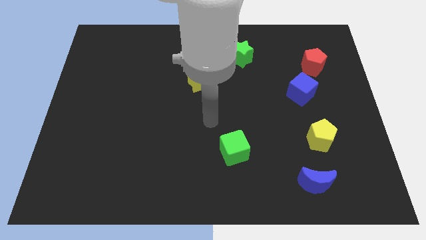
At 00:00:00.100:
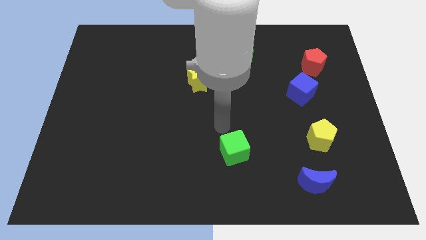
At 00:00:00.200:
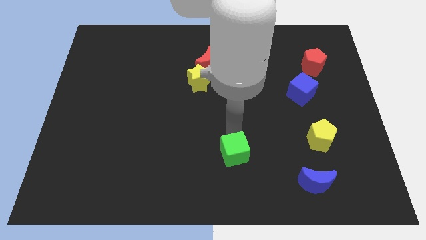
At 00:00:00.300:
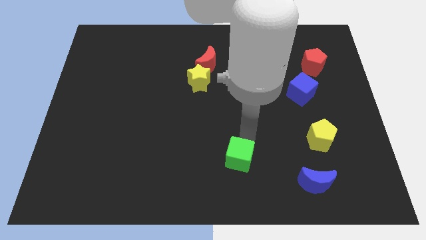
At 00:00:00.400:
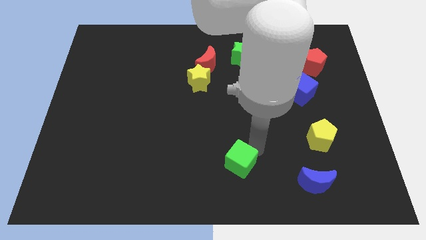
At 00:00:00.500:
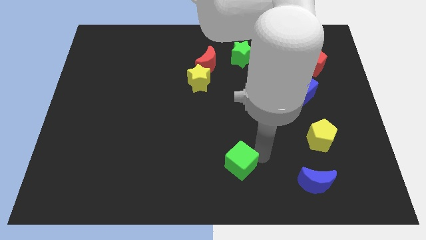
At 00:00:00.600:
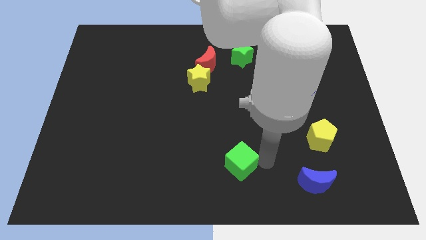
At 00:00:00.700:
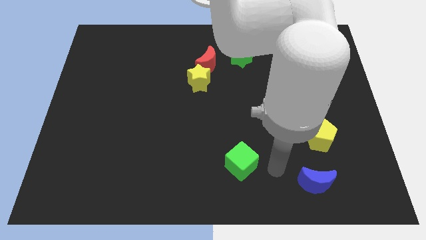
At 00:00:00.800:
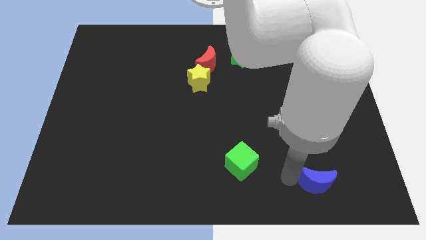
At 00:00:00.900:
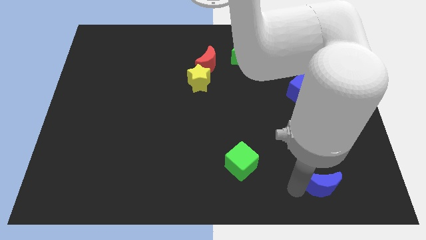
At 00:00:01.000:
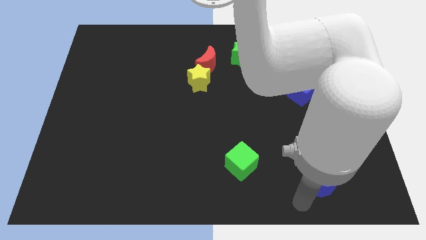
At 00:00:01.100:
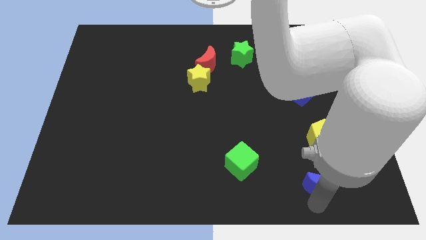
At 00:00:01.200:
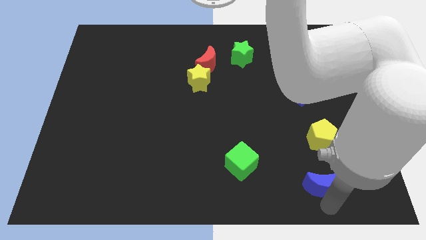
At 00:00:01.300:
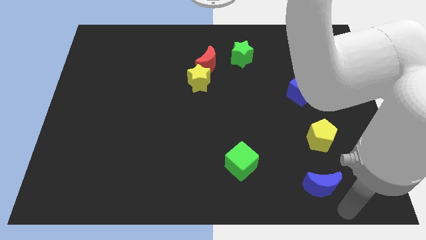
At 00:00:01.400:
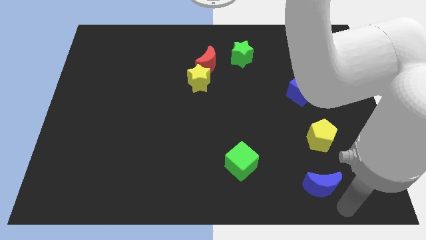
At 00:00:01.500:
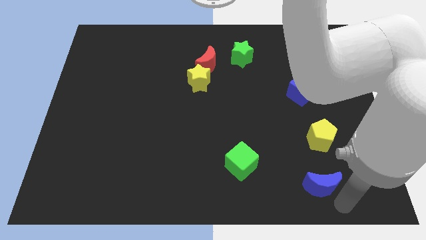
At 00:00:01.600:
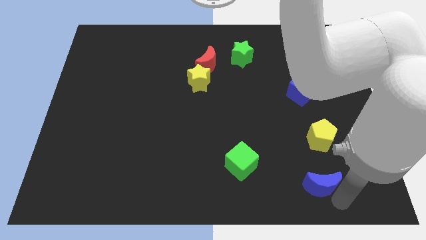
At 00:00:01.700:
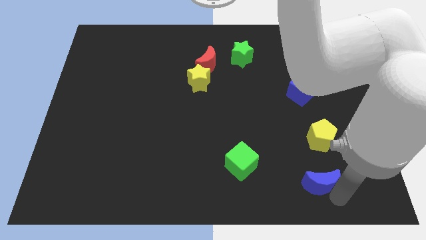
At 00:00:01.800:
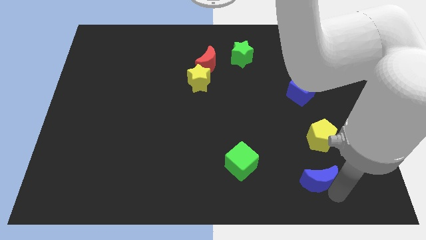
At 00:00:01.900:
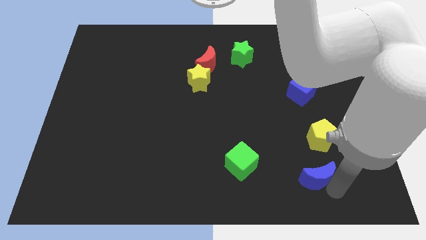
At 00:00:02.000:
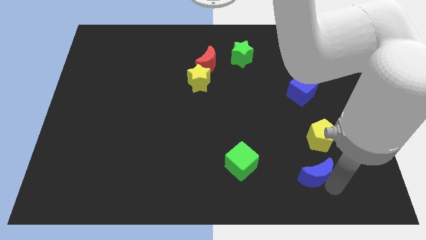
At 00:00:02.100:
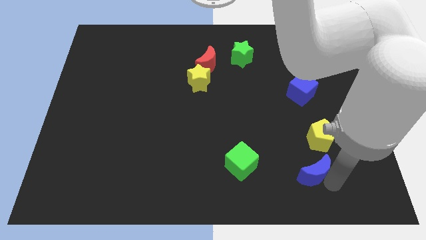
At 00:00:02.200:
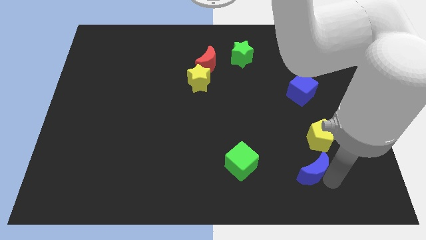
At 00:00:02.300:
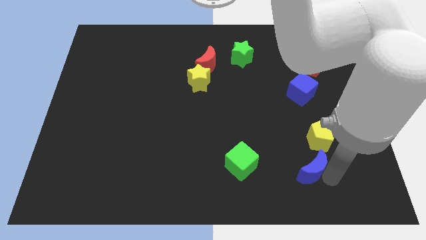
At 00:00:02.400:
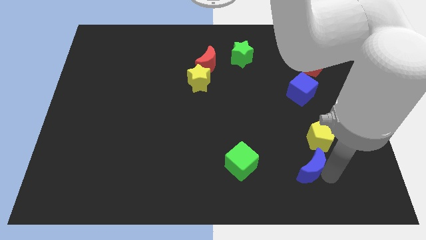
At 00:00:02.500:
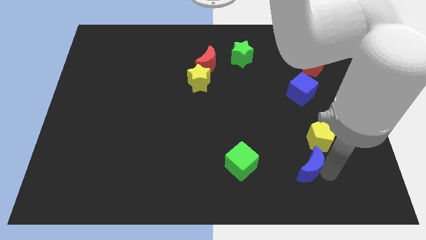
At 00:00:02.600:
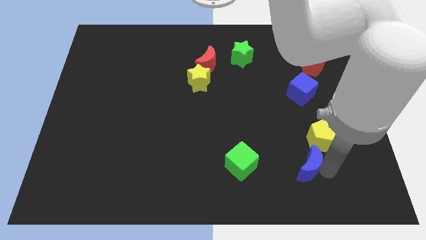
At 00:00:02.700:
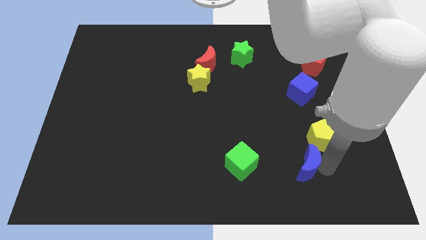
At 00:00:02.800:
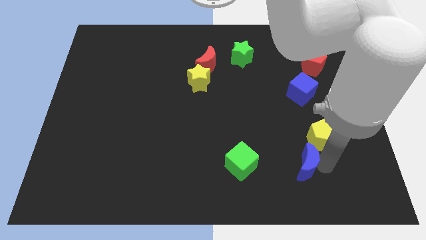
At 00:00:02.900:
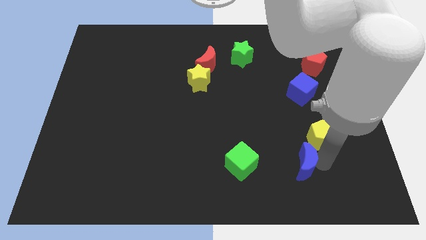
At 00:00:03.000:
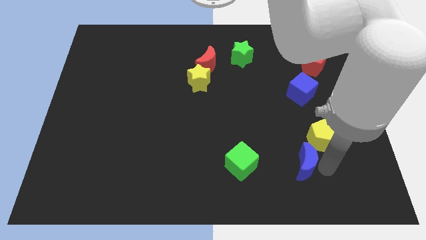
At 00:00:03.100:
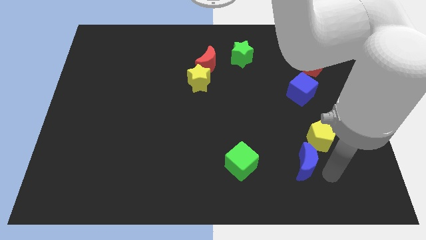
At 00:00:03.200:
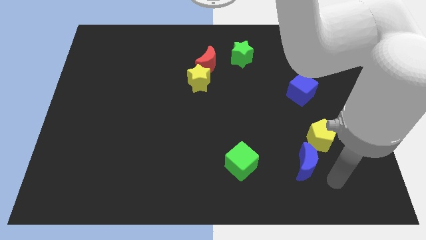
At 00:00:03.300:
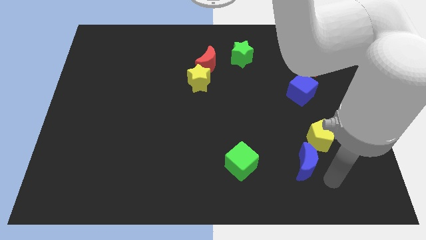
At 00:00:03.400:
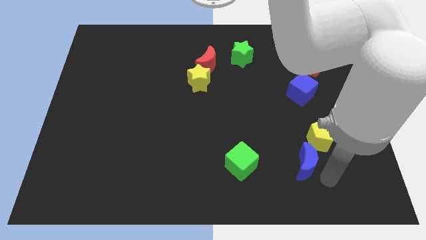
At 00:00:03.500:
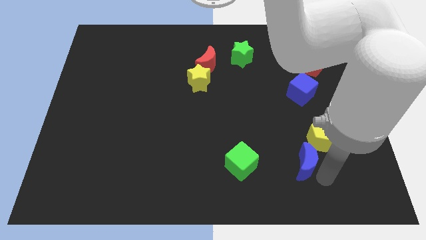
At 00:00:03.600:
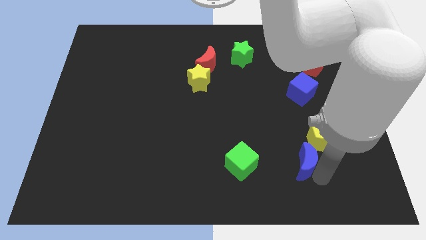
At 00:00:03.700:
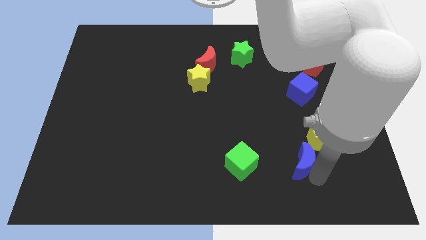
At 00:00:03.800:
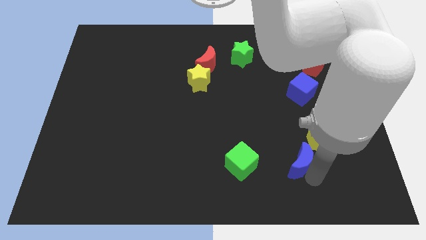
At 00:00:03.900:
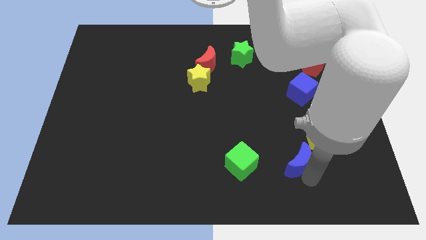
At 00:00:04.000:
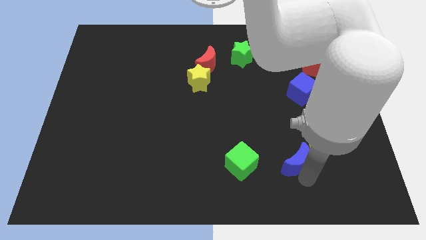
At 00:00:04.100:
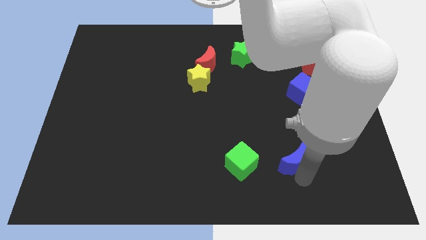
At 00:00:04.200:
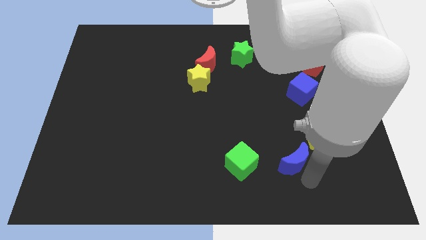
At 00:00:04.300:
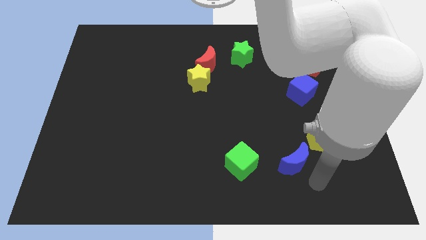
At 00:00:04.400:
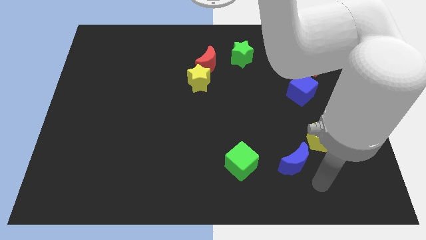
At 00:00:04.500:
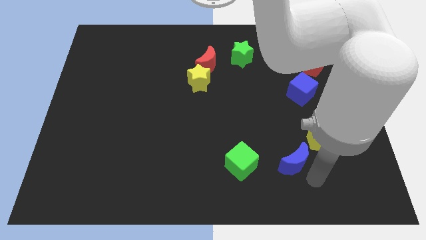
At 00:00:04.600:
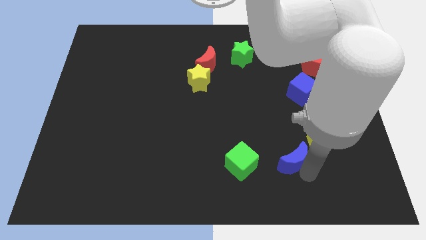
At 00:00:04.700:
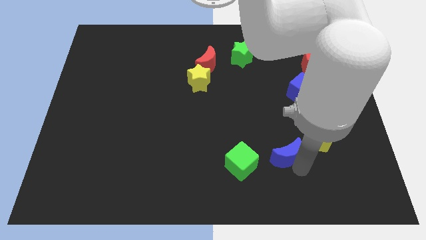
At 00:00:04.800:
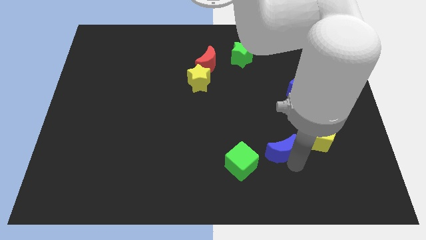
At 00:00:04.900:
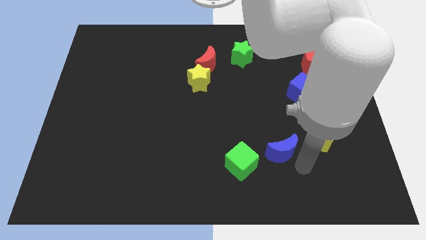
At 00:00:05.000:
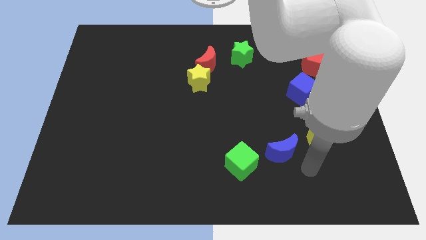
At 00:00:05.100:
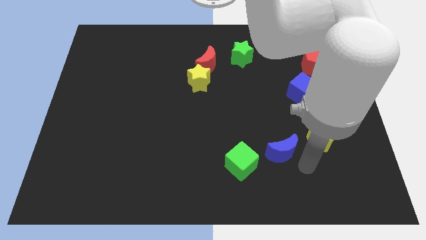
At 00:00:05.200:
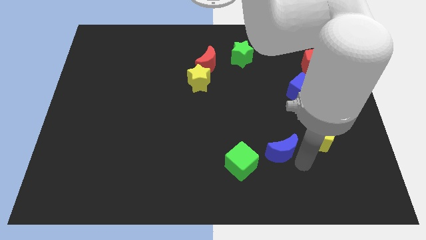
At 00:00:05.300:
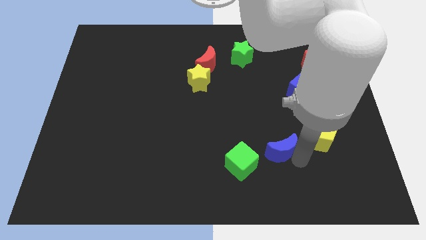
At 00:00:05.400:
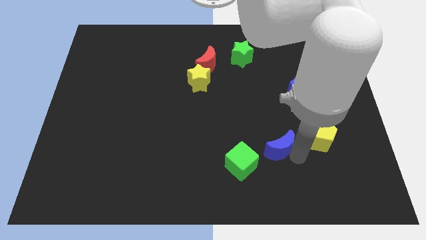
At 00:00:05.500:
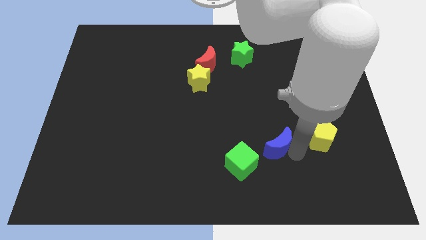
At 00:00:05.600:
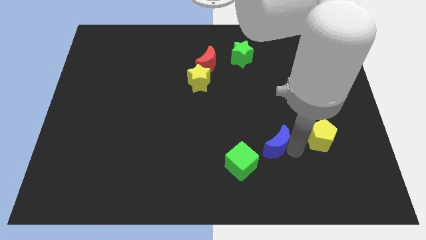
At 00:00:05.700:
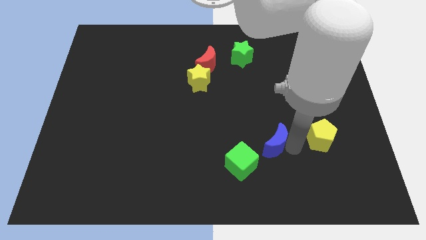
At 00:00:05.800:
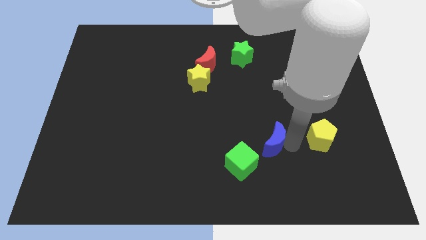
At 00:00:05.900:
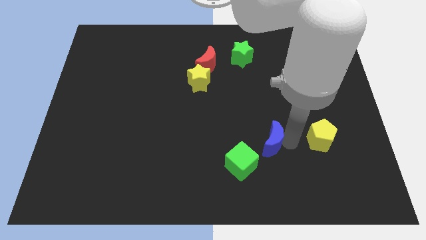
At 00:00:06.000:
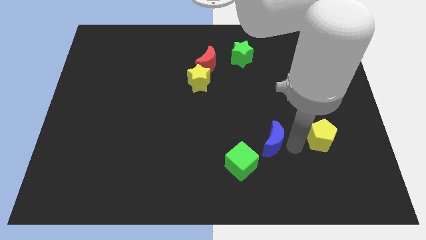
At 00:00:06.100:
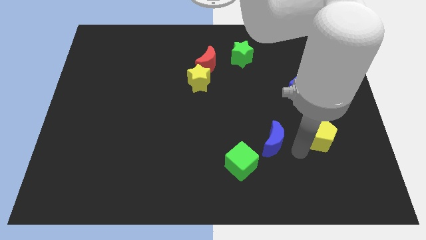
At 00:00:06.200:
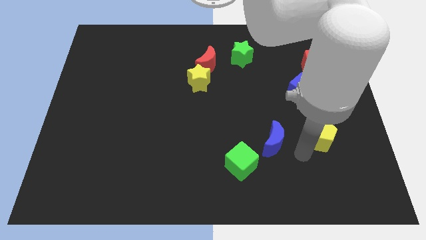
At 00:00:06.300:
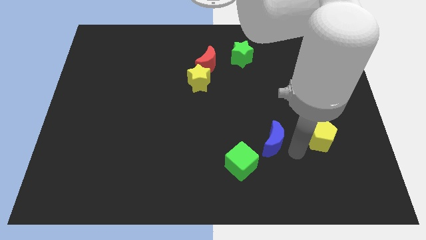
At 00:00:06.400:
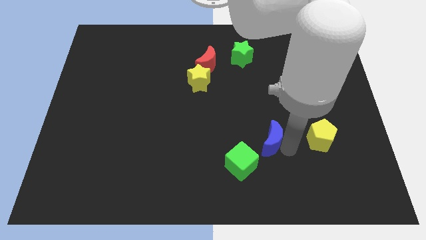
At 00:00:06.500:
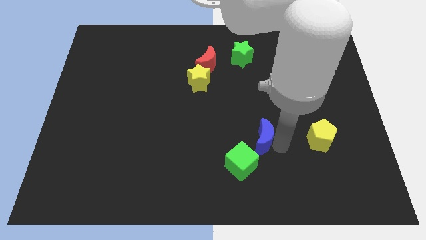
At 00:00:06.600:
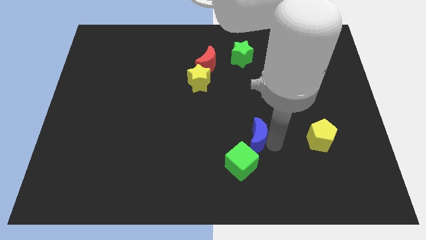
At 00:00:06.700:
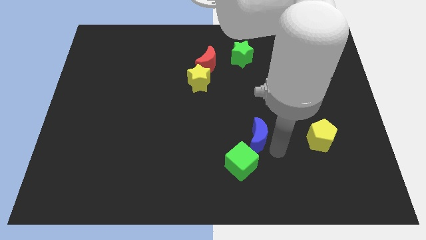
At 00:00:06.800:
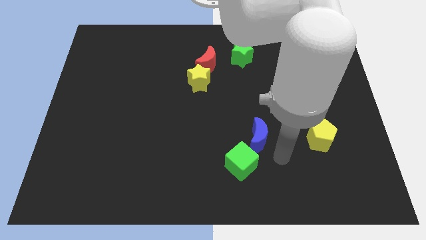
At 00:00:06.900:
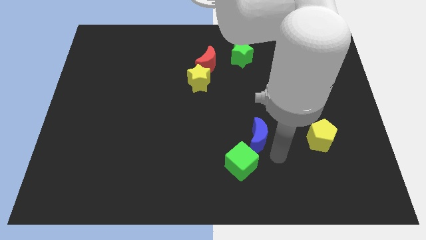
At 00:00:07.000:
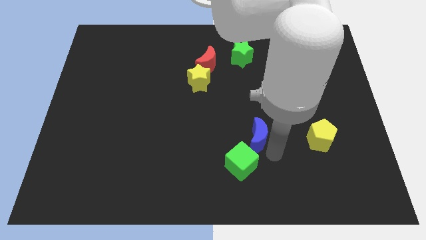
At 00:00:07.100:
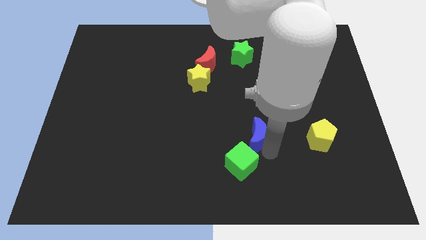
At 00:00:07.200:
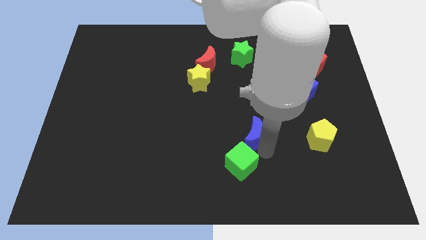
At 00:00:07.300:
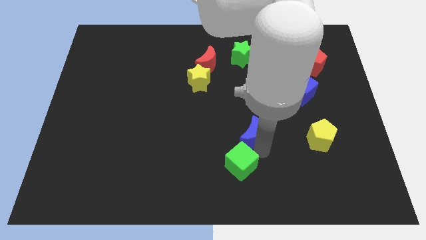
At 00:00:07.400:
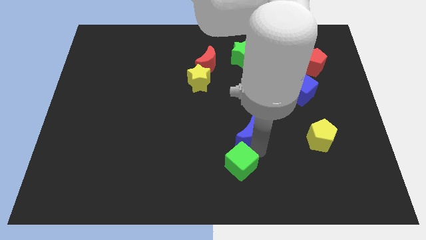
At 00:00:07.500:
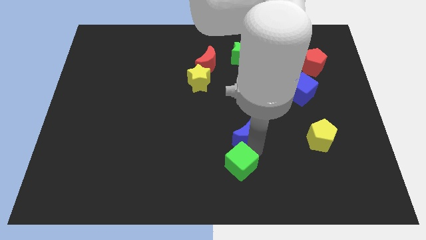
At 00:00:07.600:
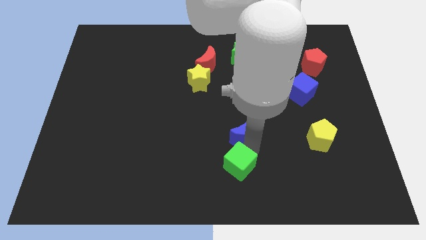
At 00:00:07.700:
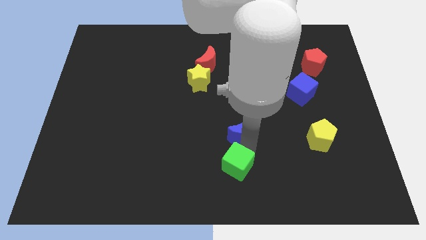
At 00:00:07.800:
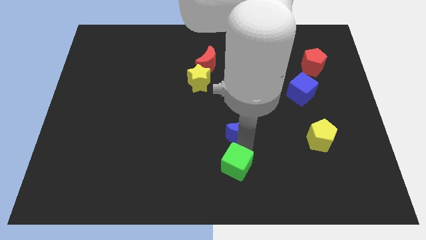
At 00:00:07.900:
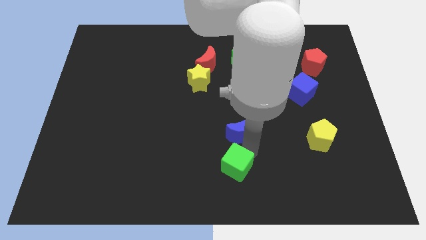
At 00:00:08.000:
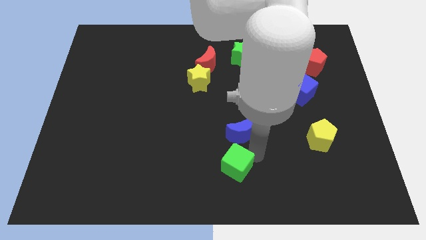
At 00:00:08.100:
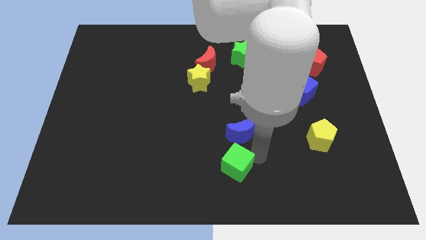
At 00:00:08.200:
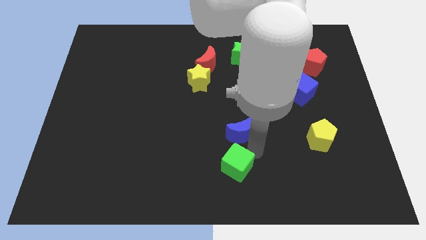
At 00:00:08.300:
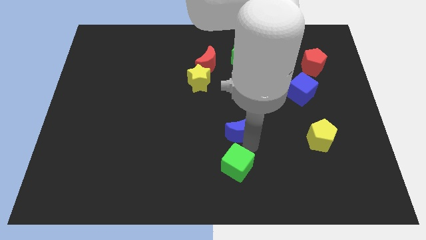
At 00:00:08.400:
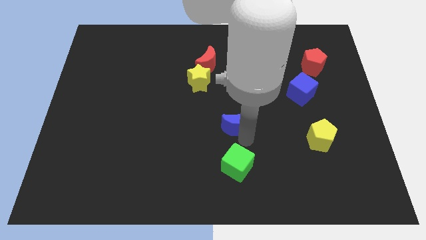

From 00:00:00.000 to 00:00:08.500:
move the blue moon up and to the left diagonally
